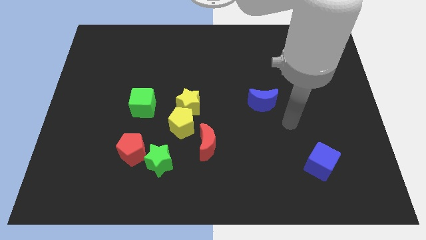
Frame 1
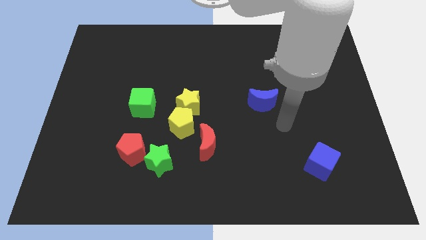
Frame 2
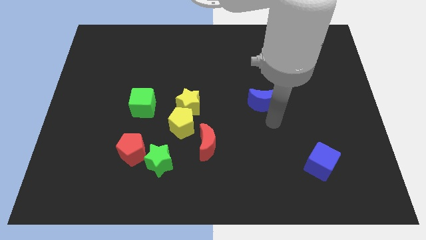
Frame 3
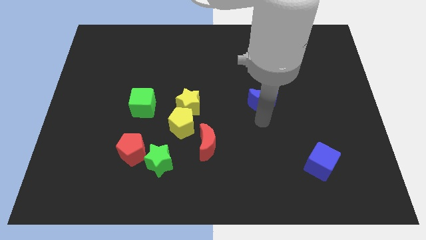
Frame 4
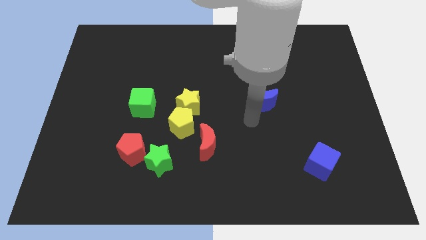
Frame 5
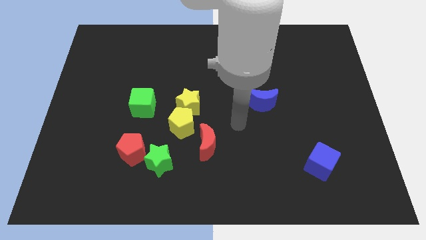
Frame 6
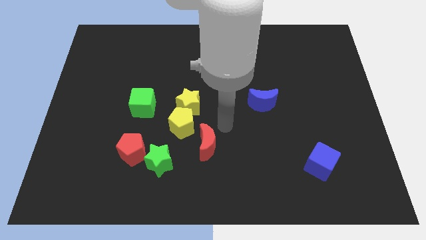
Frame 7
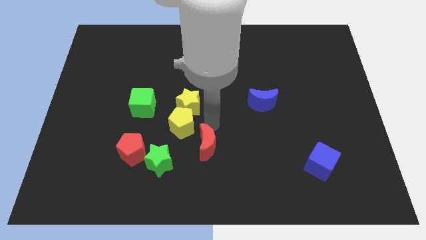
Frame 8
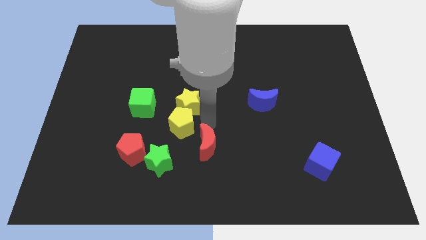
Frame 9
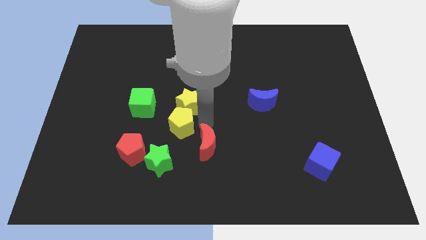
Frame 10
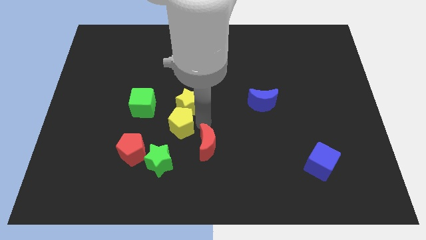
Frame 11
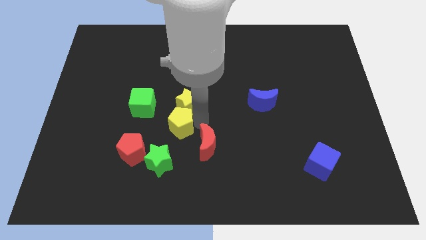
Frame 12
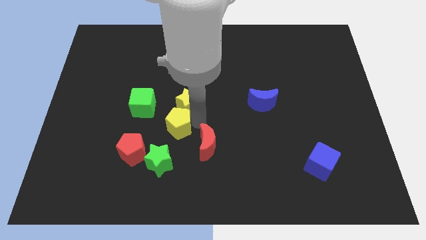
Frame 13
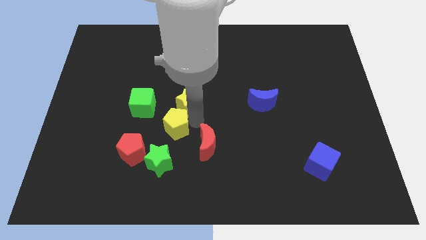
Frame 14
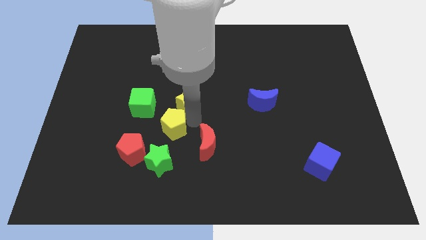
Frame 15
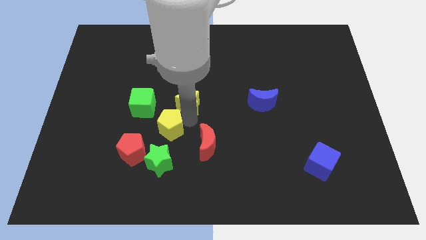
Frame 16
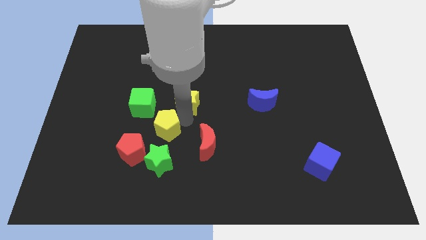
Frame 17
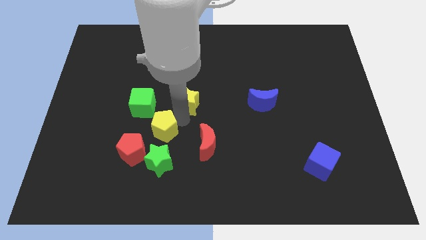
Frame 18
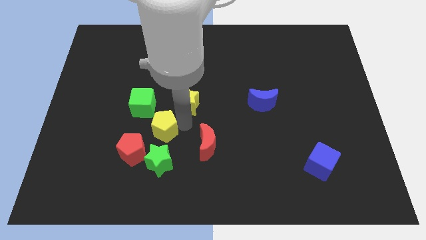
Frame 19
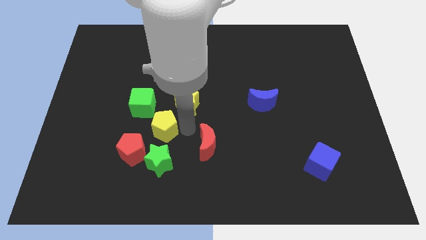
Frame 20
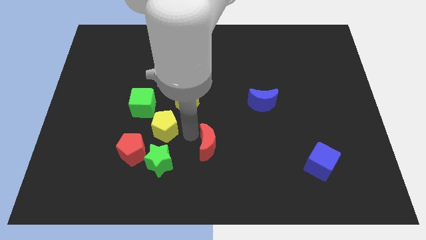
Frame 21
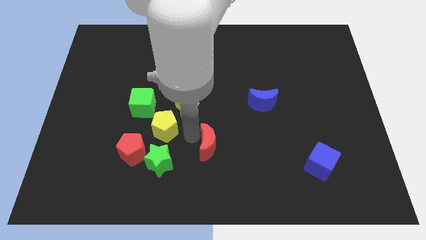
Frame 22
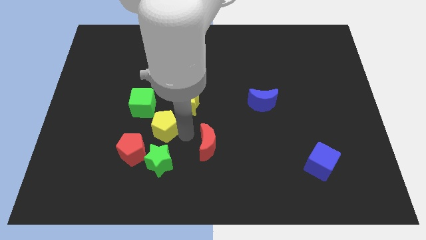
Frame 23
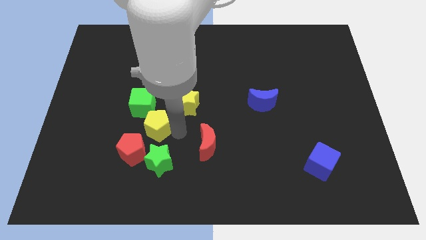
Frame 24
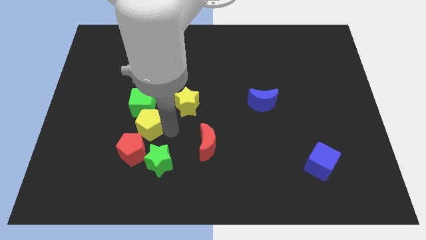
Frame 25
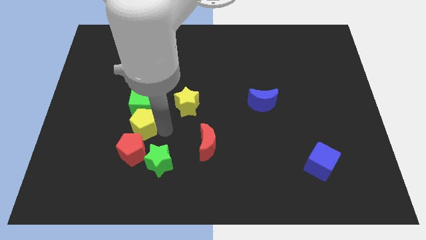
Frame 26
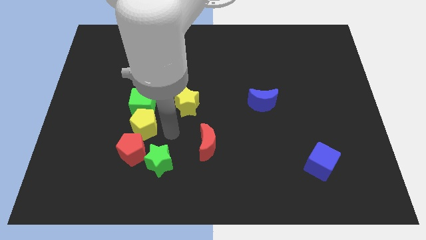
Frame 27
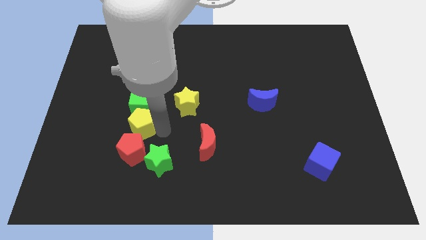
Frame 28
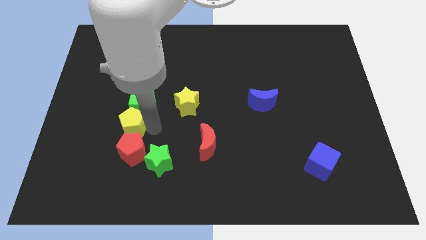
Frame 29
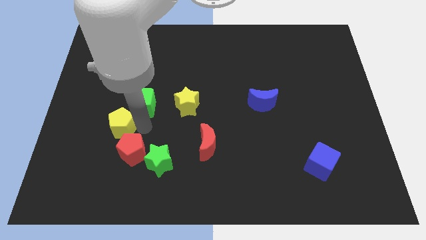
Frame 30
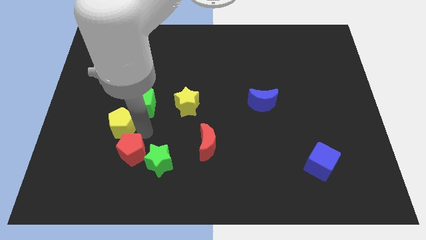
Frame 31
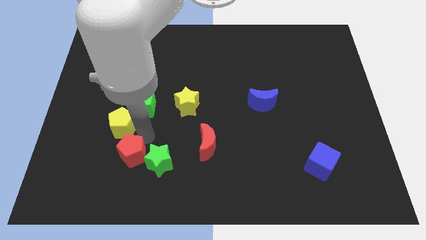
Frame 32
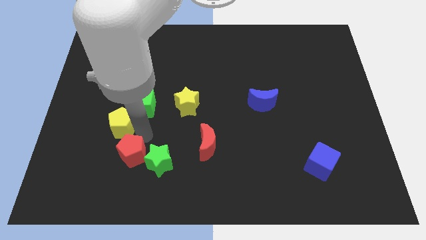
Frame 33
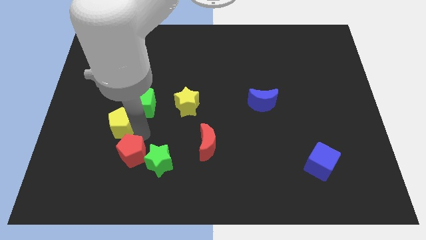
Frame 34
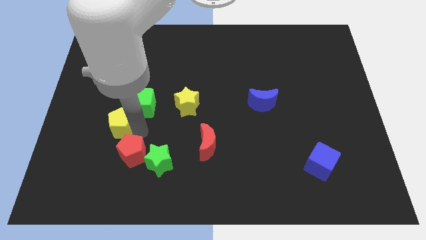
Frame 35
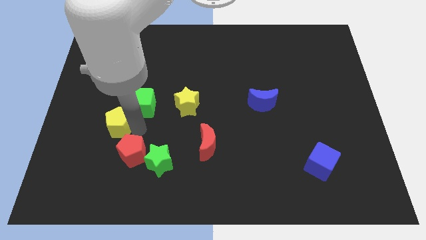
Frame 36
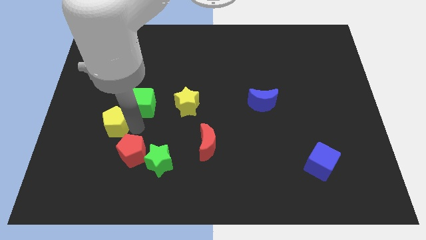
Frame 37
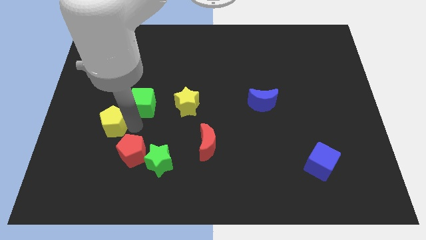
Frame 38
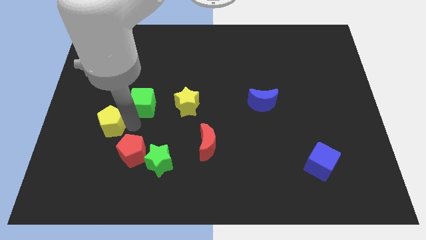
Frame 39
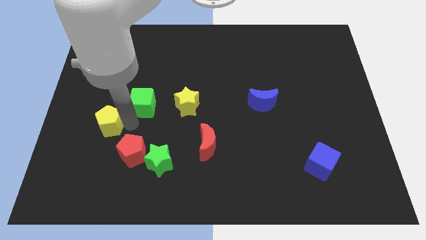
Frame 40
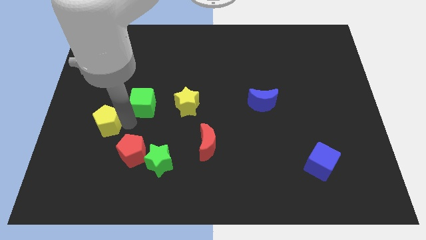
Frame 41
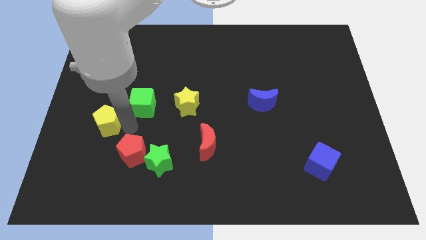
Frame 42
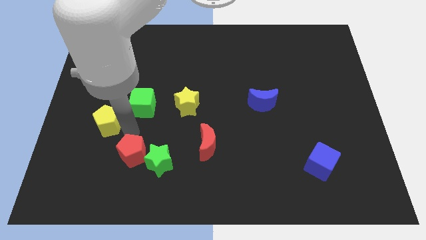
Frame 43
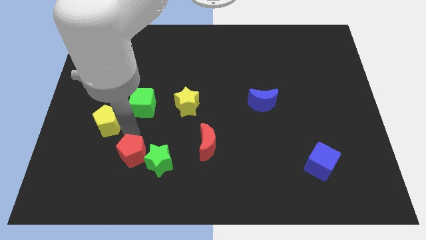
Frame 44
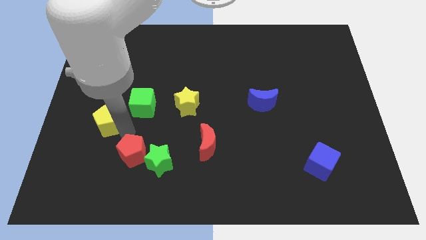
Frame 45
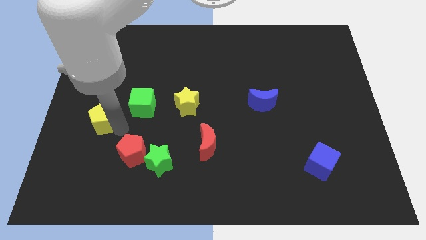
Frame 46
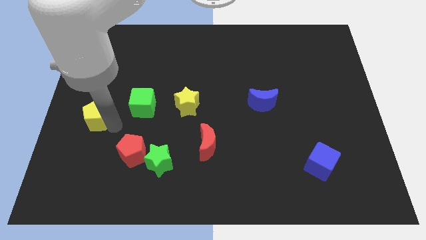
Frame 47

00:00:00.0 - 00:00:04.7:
slide the yellow pentagon to the left side

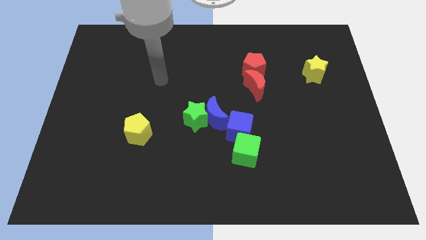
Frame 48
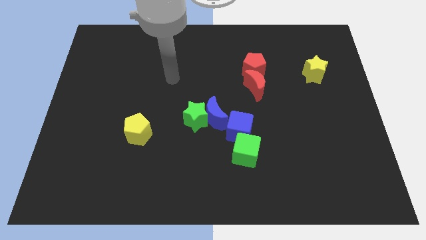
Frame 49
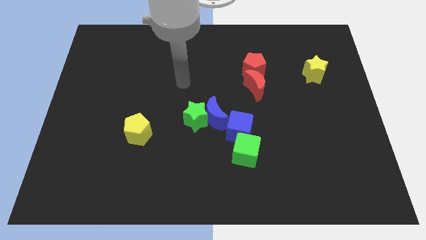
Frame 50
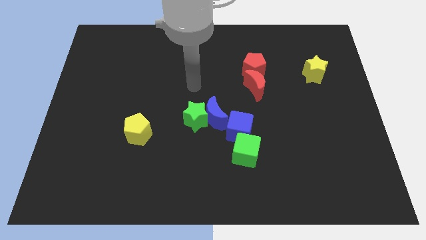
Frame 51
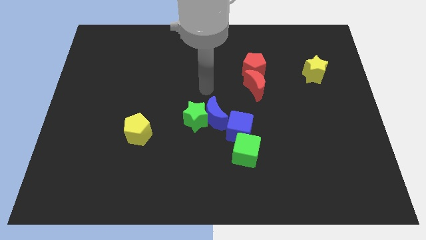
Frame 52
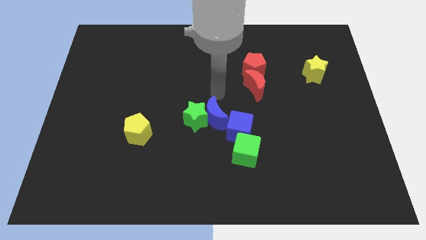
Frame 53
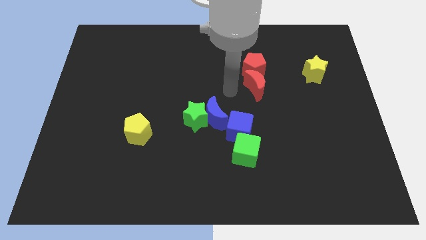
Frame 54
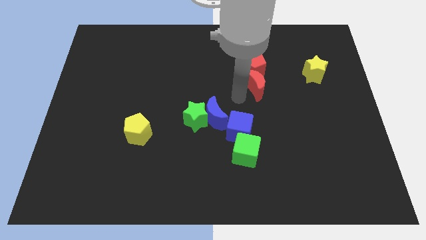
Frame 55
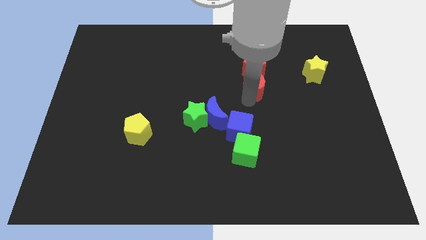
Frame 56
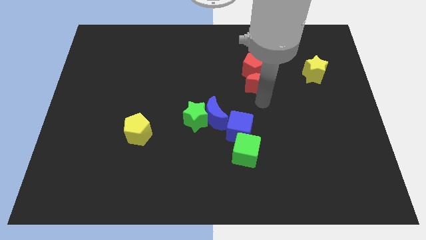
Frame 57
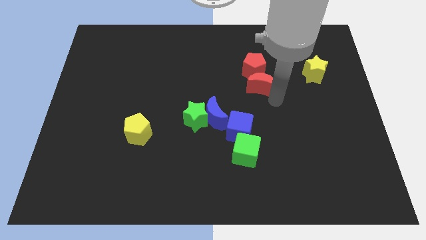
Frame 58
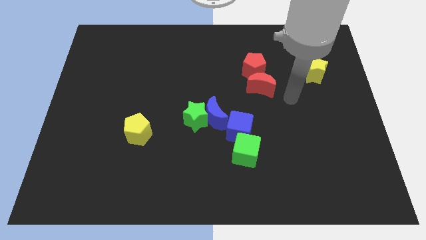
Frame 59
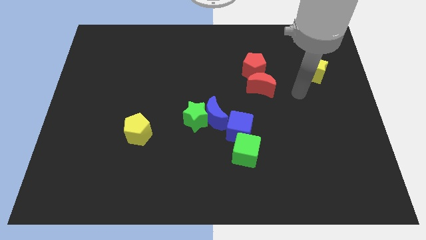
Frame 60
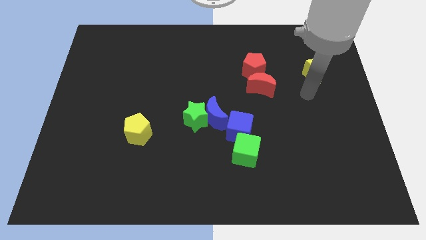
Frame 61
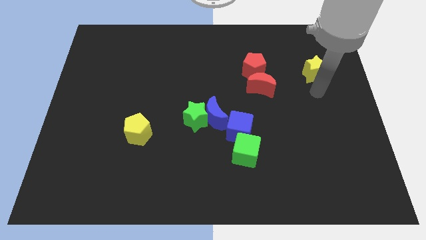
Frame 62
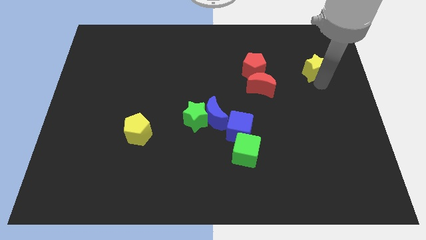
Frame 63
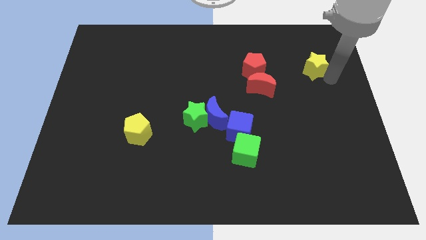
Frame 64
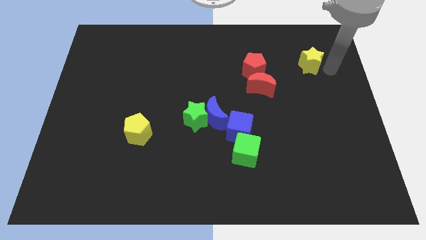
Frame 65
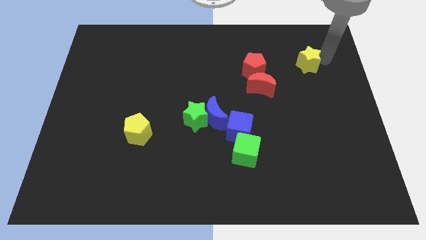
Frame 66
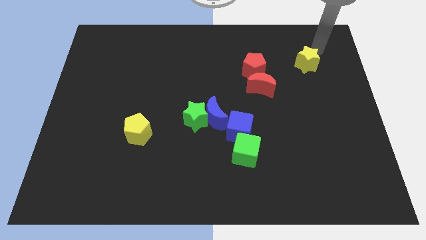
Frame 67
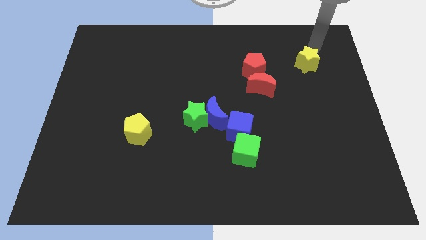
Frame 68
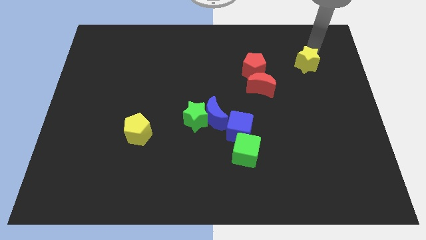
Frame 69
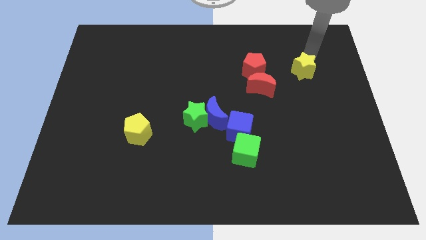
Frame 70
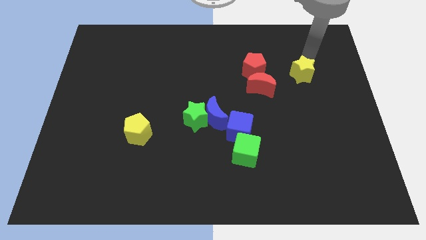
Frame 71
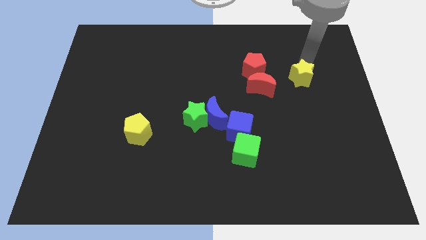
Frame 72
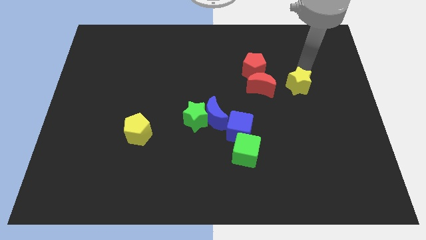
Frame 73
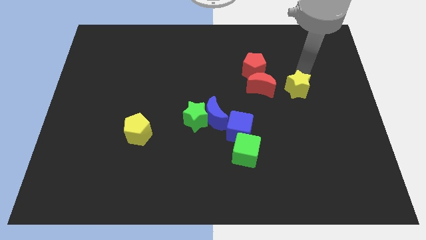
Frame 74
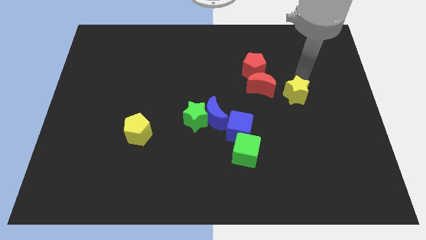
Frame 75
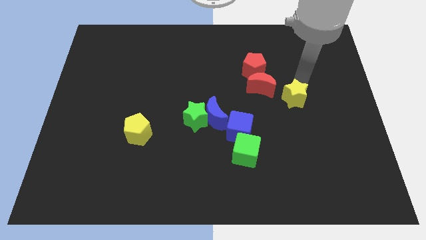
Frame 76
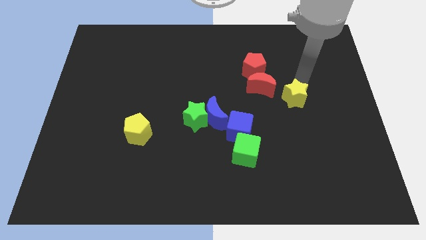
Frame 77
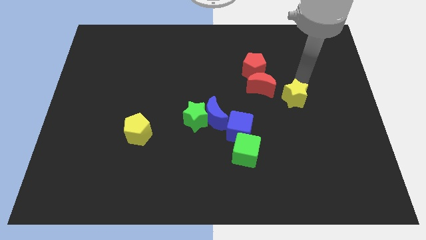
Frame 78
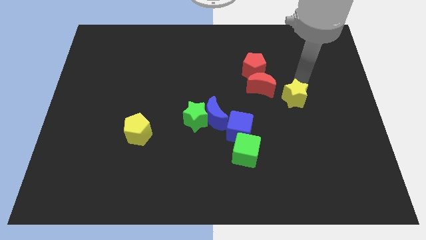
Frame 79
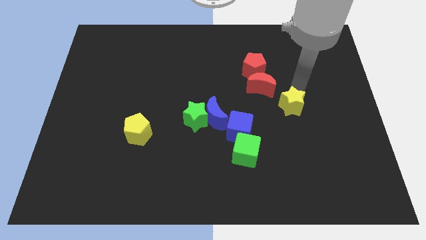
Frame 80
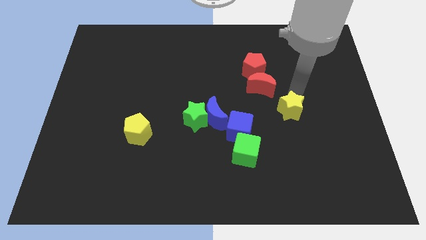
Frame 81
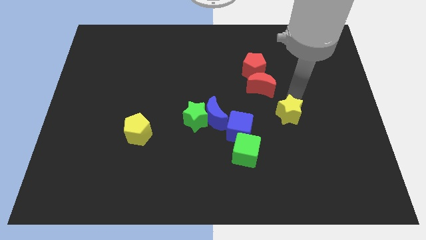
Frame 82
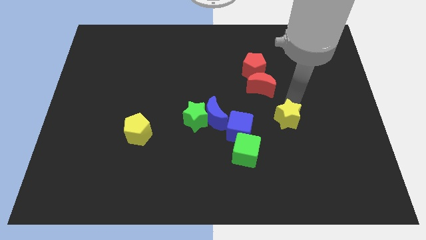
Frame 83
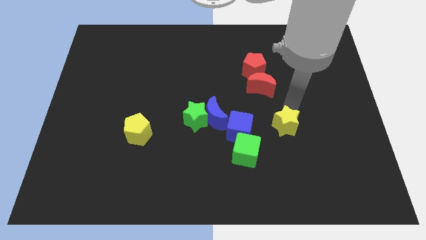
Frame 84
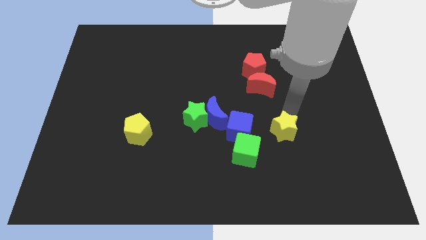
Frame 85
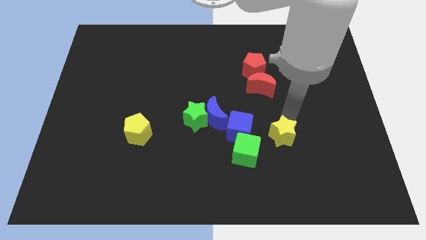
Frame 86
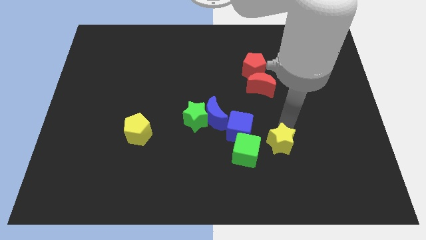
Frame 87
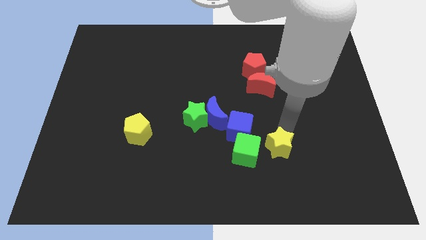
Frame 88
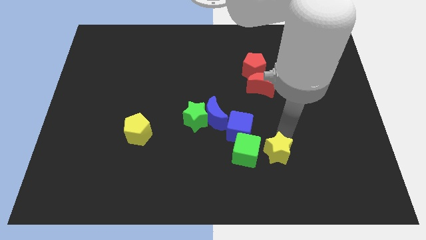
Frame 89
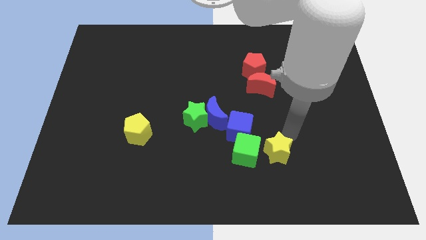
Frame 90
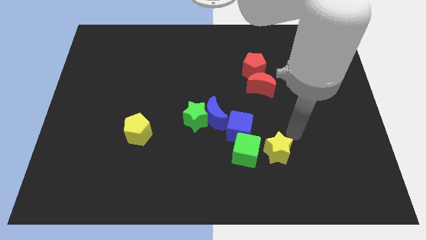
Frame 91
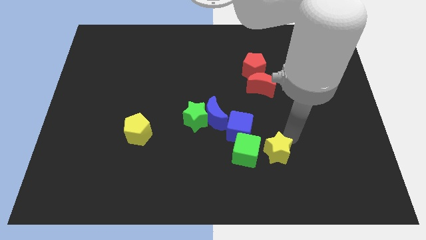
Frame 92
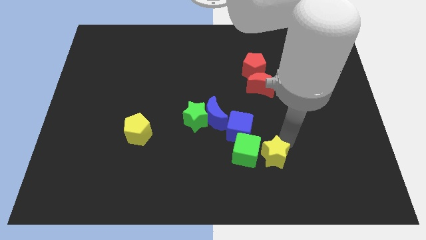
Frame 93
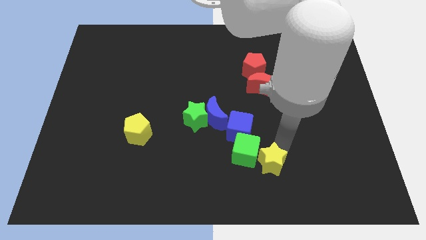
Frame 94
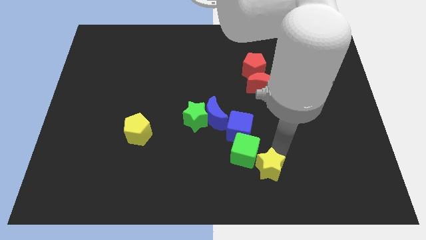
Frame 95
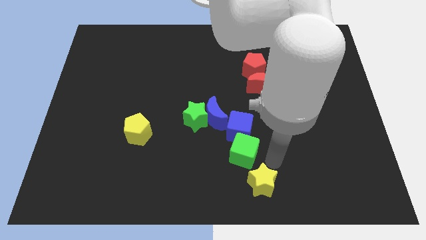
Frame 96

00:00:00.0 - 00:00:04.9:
put the yellow star to the bottom side
